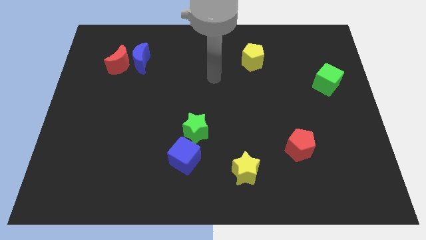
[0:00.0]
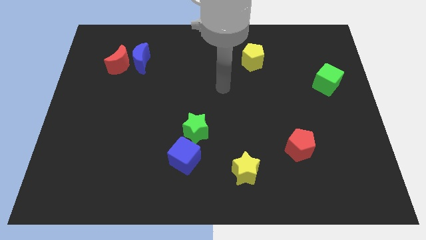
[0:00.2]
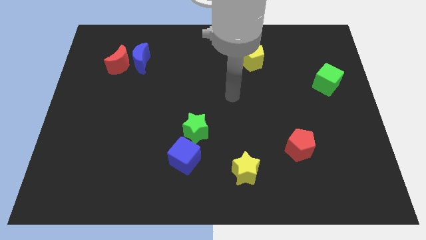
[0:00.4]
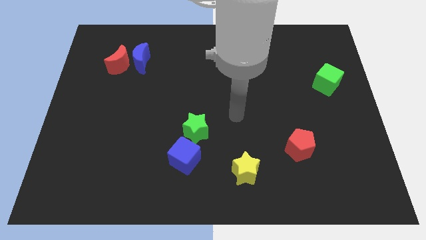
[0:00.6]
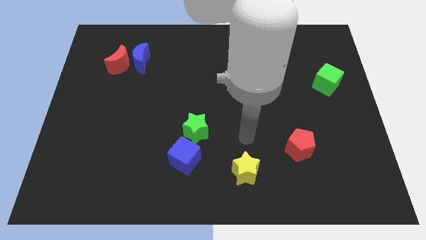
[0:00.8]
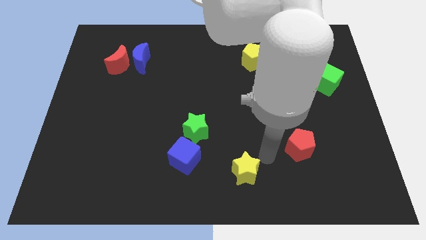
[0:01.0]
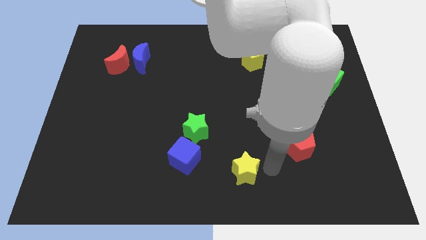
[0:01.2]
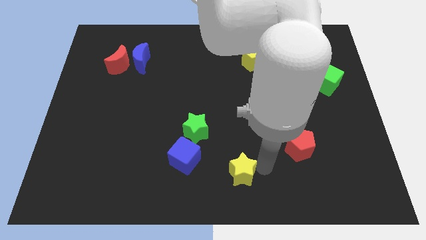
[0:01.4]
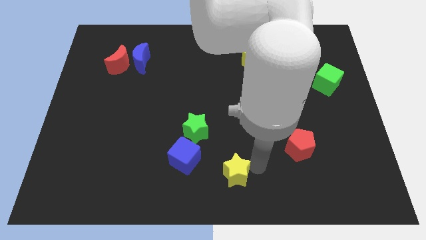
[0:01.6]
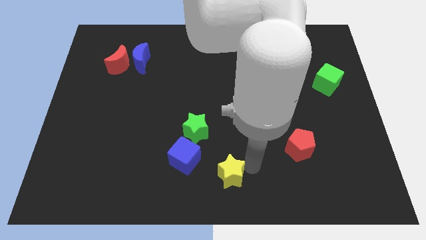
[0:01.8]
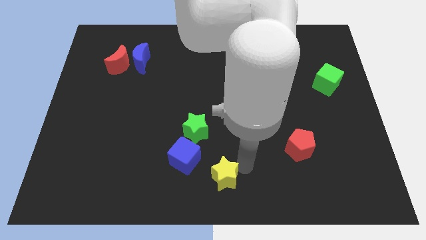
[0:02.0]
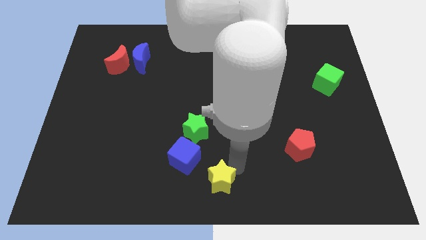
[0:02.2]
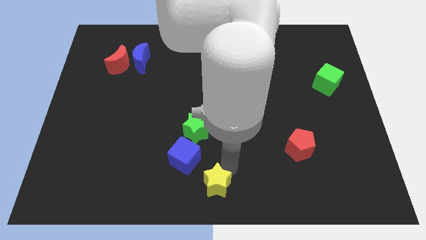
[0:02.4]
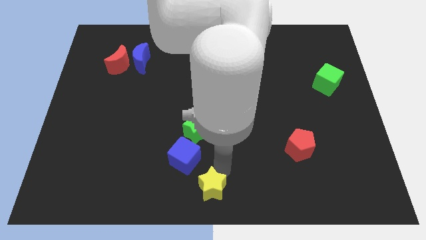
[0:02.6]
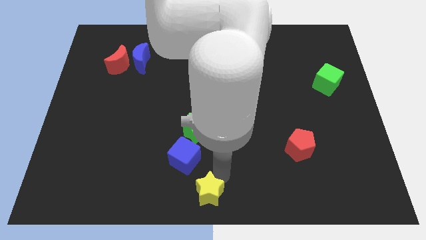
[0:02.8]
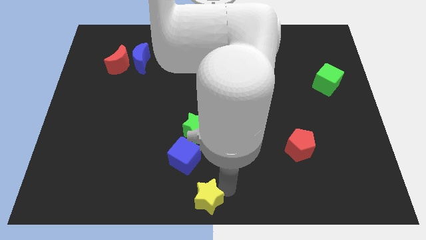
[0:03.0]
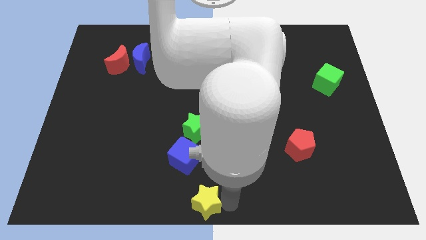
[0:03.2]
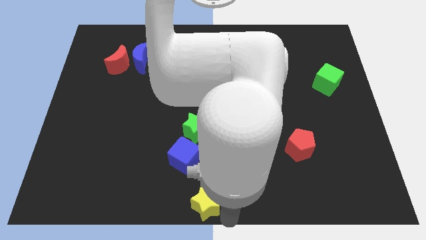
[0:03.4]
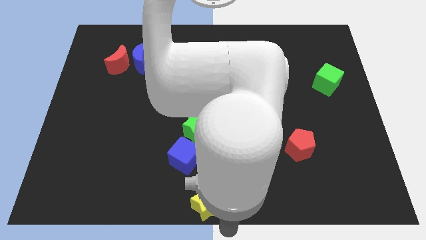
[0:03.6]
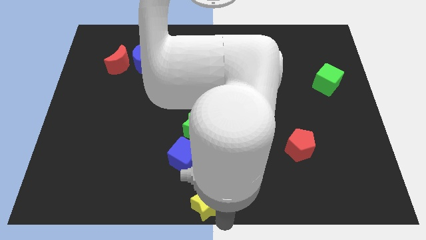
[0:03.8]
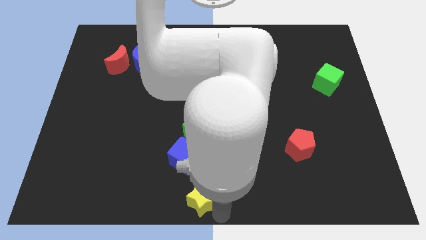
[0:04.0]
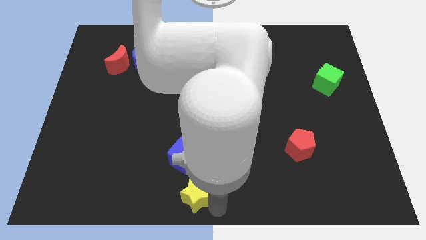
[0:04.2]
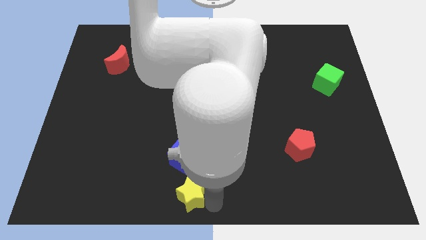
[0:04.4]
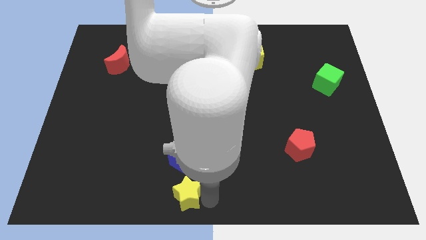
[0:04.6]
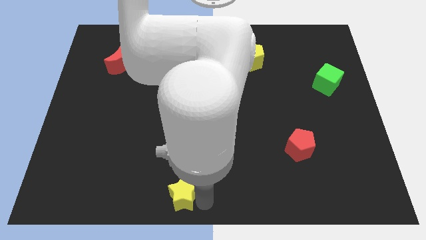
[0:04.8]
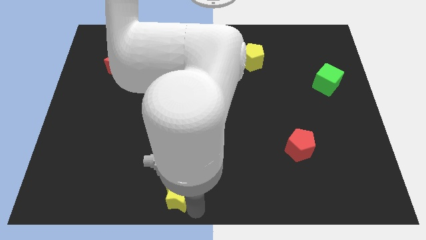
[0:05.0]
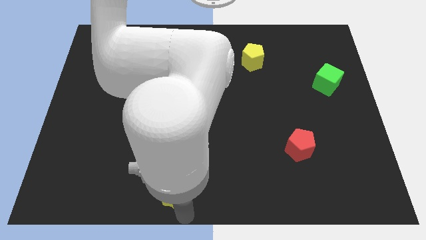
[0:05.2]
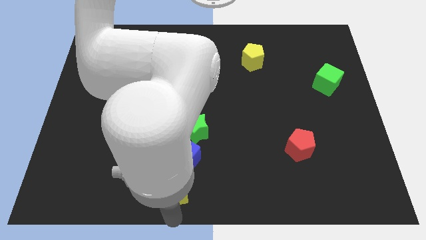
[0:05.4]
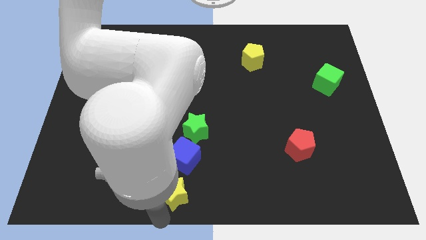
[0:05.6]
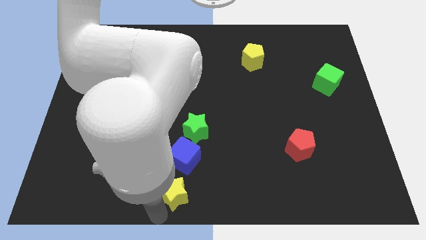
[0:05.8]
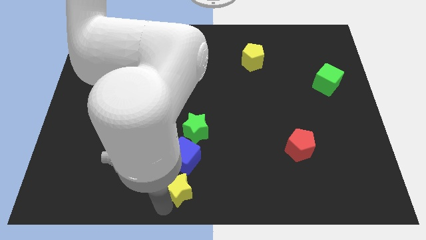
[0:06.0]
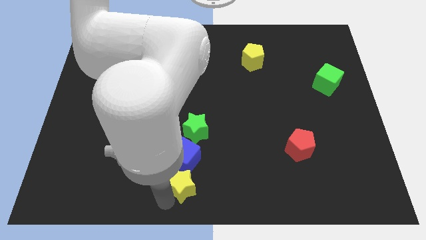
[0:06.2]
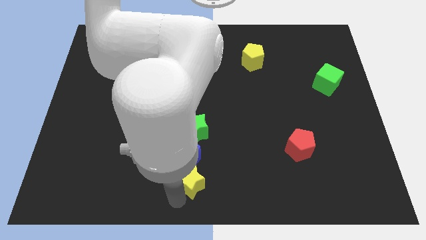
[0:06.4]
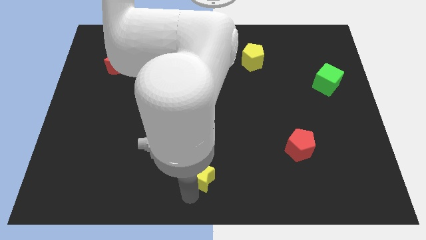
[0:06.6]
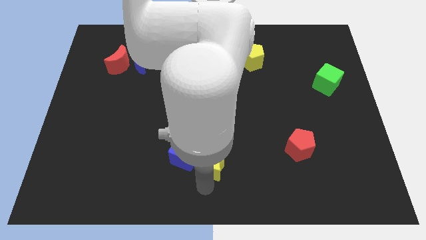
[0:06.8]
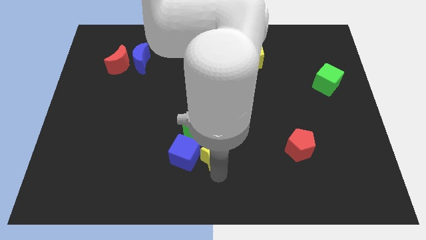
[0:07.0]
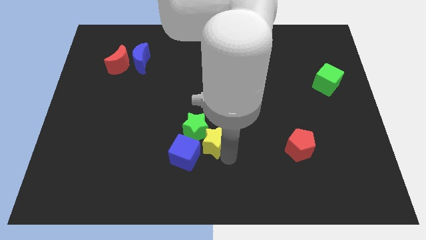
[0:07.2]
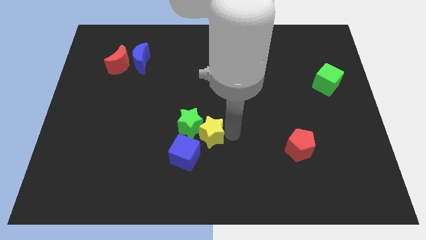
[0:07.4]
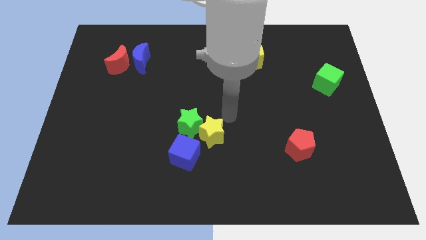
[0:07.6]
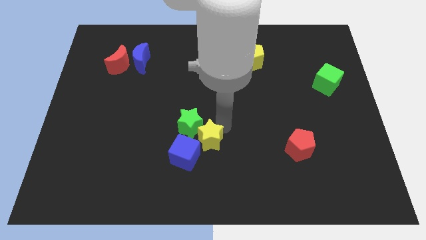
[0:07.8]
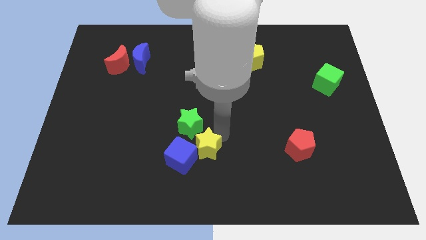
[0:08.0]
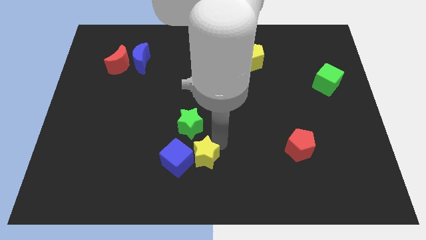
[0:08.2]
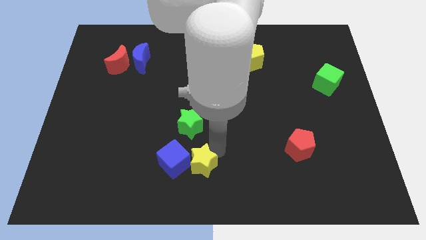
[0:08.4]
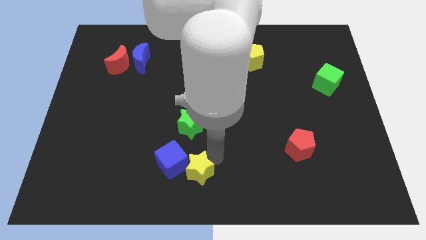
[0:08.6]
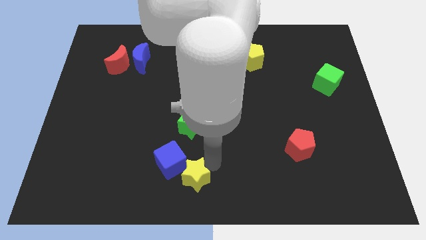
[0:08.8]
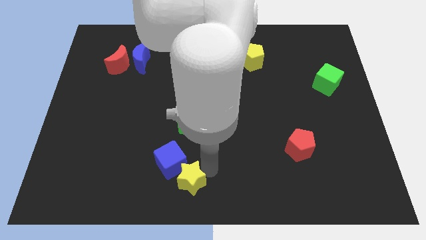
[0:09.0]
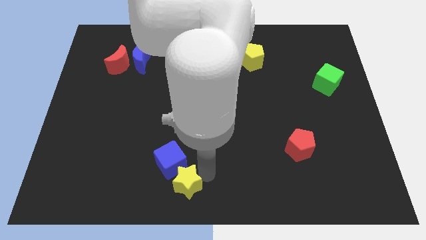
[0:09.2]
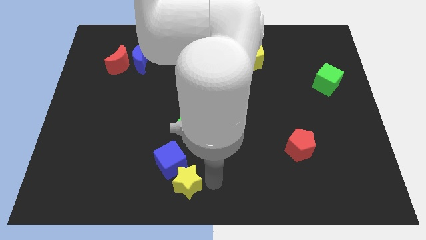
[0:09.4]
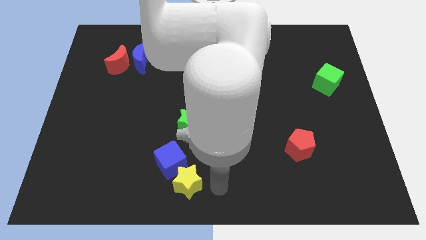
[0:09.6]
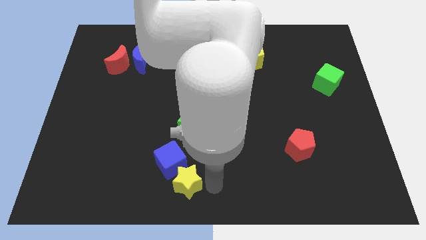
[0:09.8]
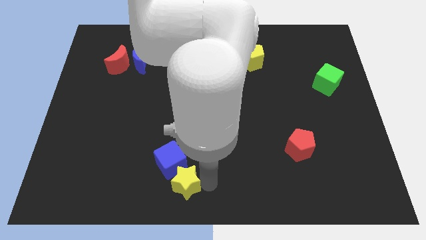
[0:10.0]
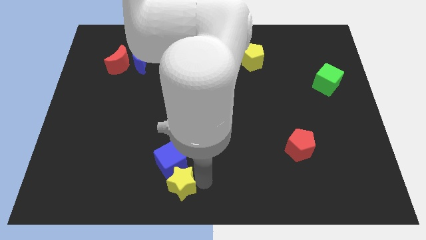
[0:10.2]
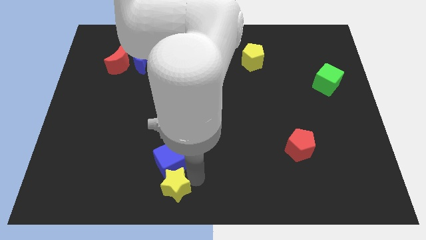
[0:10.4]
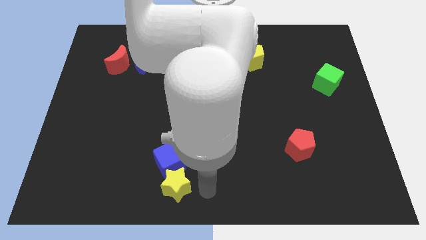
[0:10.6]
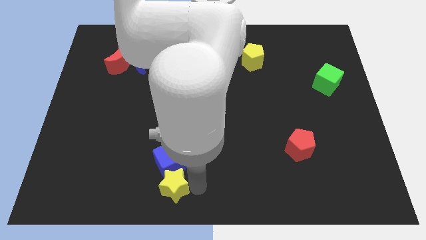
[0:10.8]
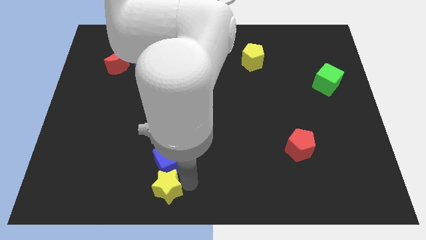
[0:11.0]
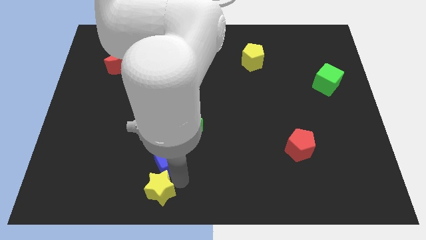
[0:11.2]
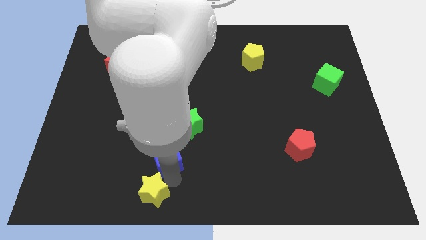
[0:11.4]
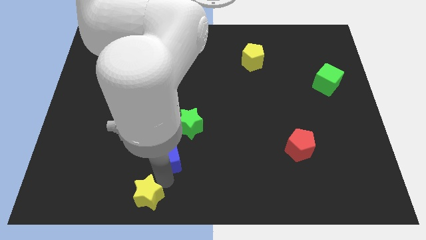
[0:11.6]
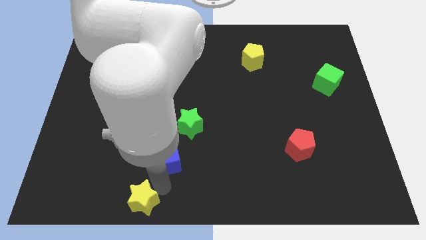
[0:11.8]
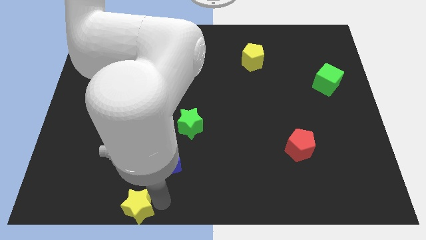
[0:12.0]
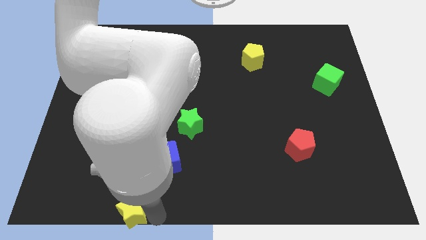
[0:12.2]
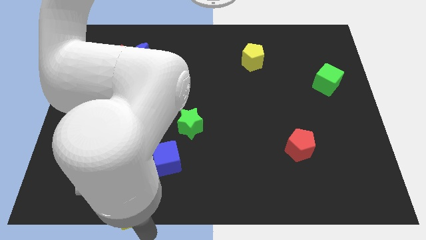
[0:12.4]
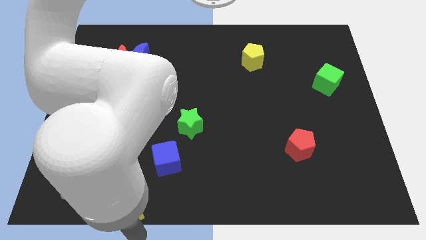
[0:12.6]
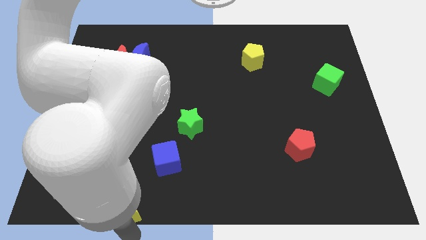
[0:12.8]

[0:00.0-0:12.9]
push the yellow star to the left

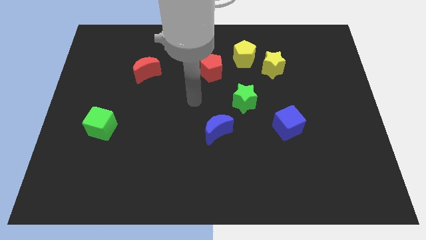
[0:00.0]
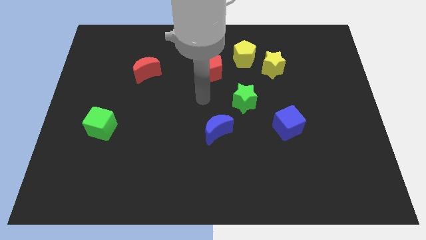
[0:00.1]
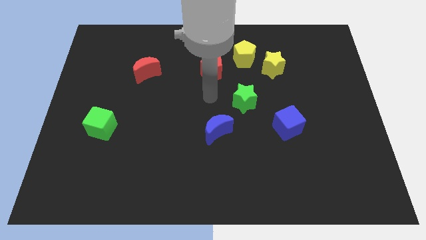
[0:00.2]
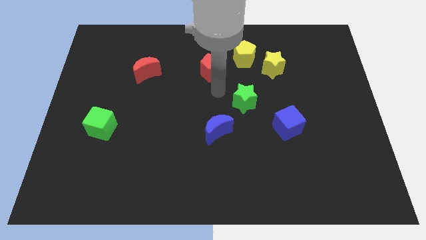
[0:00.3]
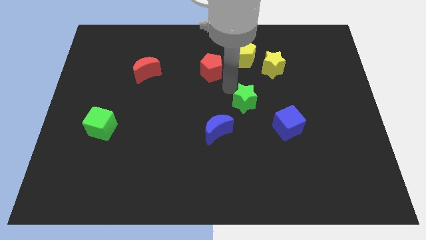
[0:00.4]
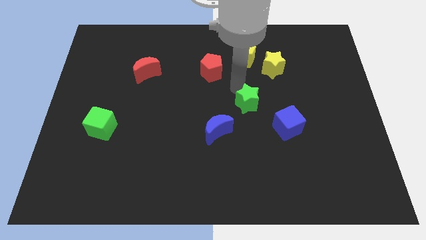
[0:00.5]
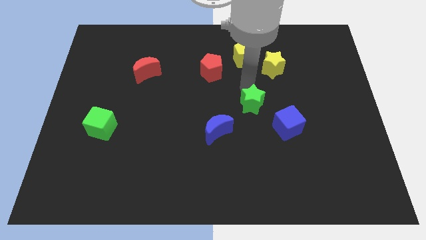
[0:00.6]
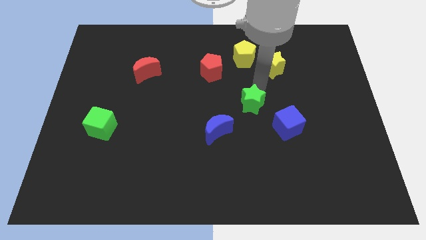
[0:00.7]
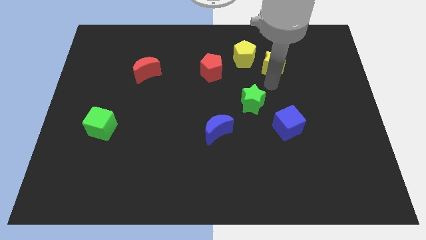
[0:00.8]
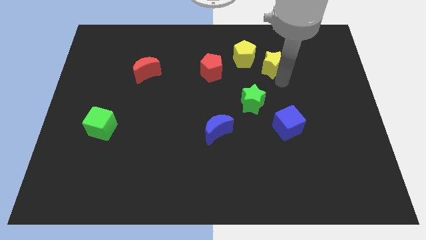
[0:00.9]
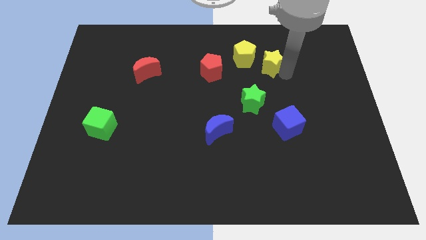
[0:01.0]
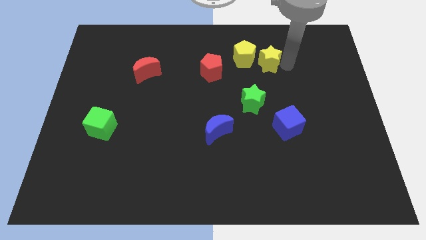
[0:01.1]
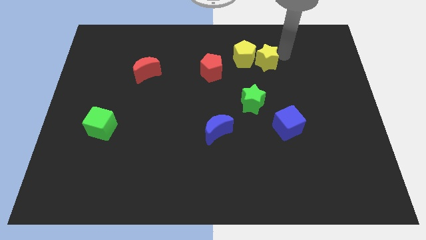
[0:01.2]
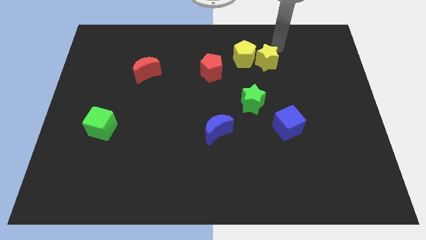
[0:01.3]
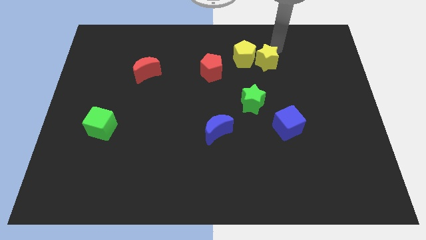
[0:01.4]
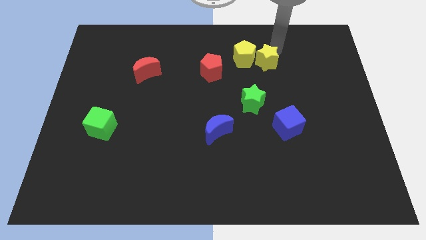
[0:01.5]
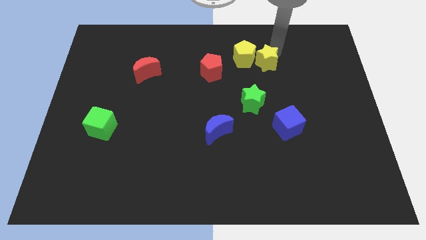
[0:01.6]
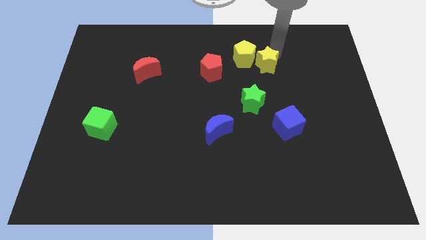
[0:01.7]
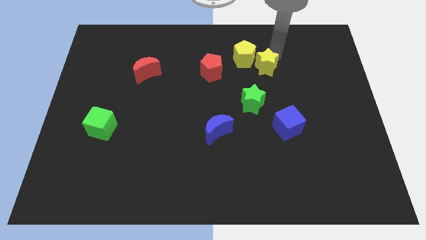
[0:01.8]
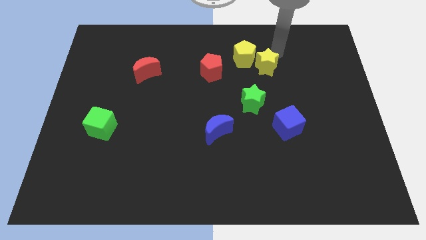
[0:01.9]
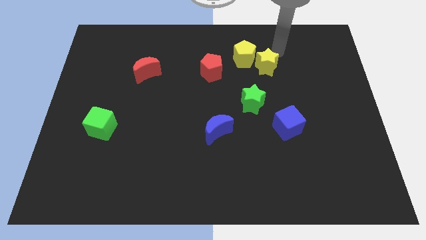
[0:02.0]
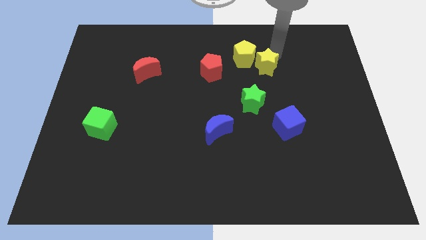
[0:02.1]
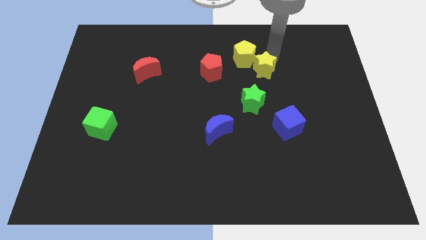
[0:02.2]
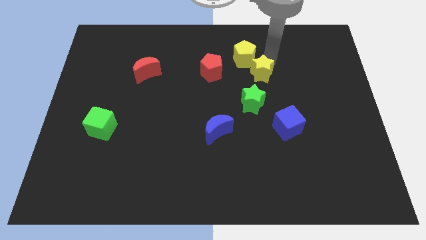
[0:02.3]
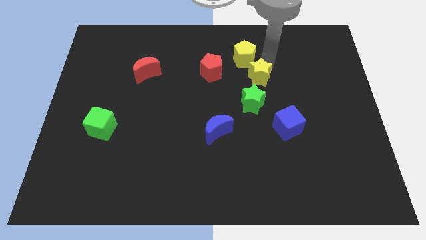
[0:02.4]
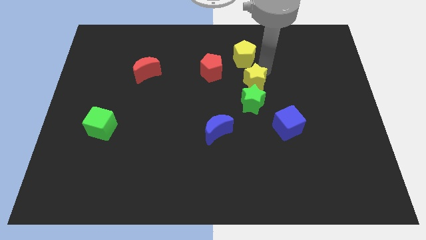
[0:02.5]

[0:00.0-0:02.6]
slightly move the yellow star diagonally down and left
